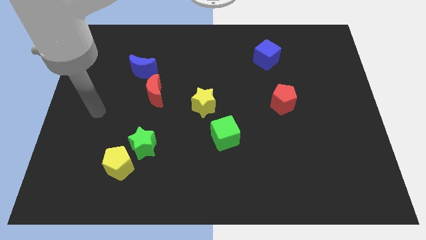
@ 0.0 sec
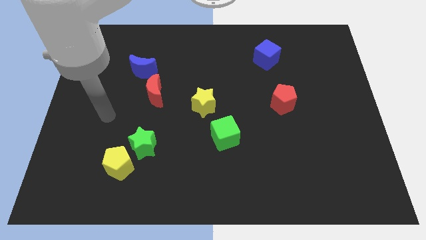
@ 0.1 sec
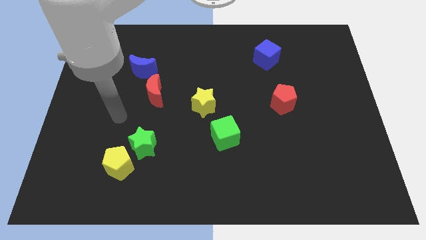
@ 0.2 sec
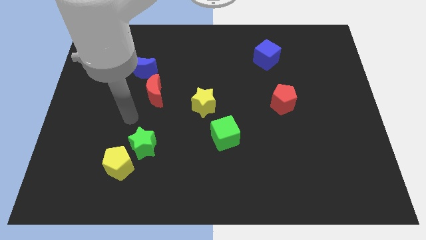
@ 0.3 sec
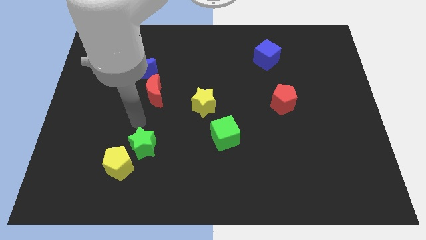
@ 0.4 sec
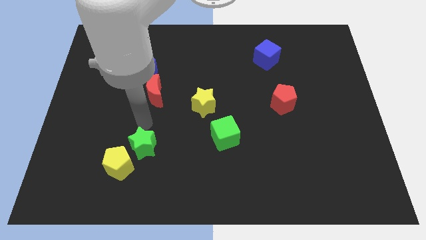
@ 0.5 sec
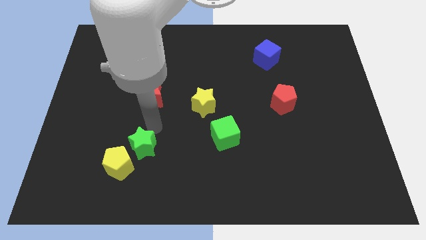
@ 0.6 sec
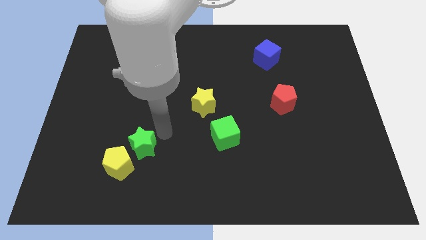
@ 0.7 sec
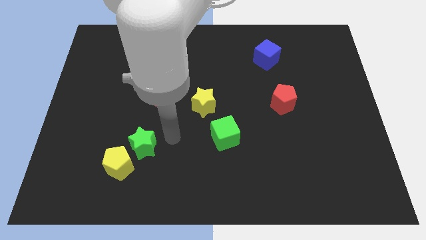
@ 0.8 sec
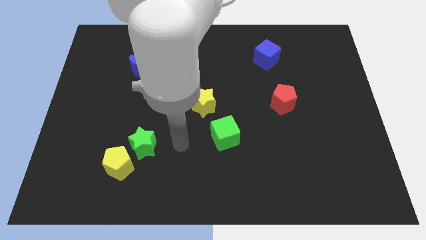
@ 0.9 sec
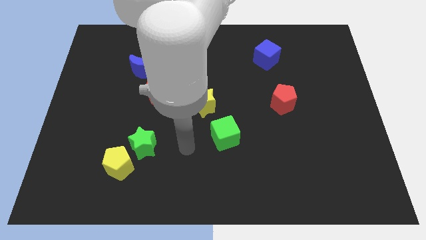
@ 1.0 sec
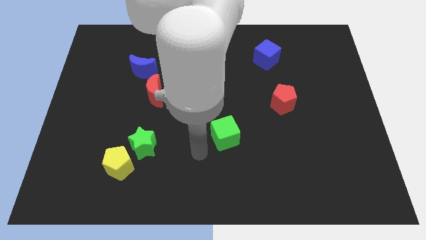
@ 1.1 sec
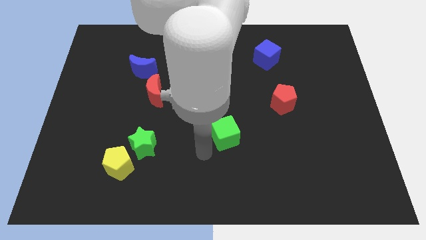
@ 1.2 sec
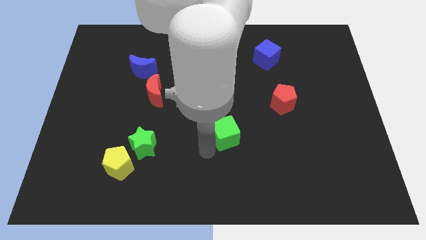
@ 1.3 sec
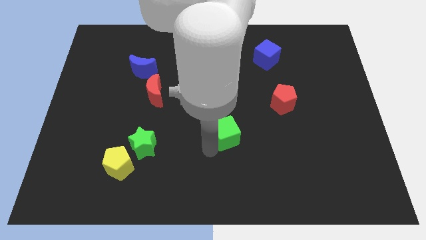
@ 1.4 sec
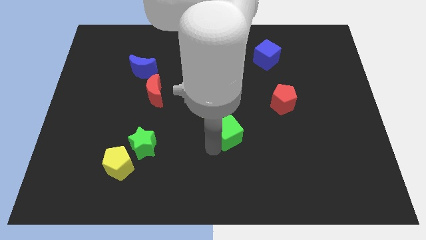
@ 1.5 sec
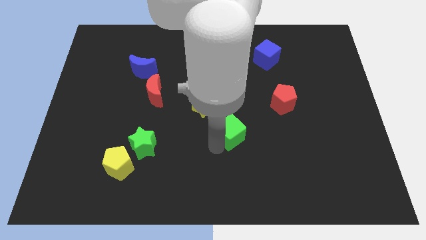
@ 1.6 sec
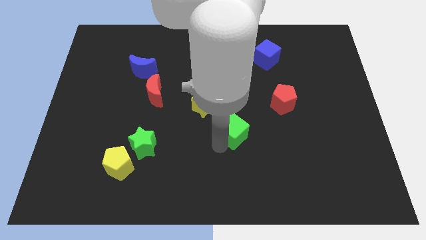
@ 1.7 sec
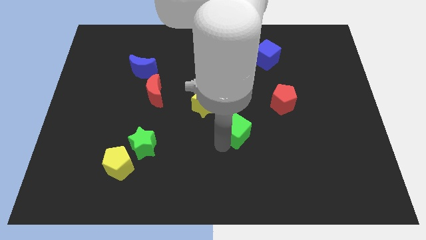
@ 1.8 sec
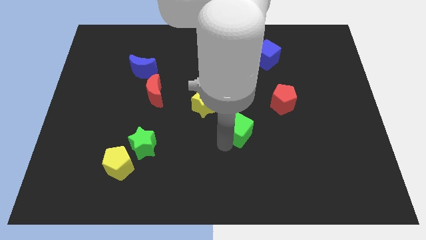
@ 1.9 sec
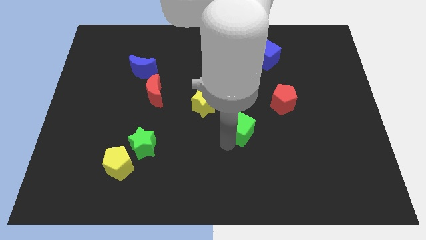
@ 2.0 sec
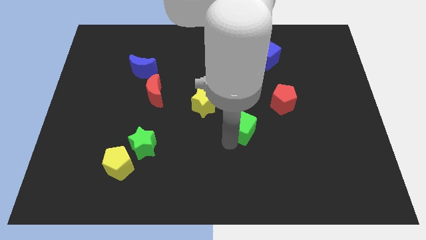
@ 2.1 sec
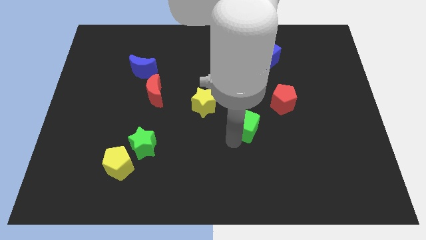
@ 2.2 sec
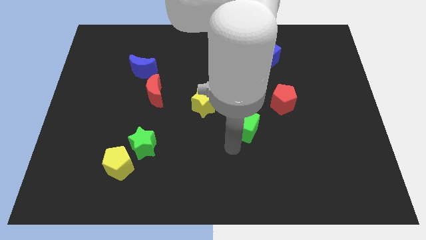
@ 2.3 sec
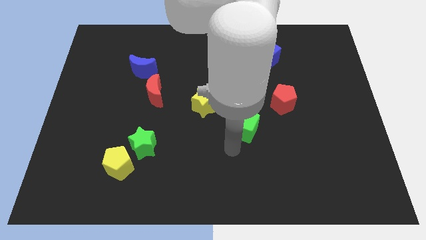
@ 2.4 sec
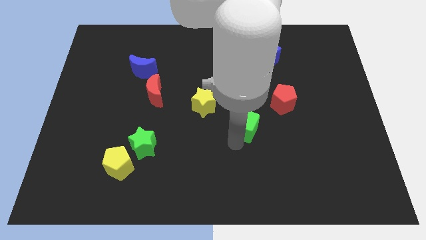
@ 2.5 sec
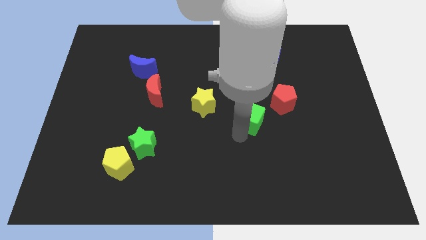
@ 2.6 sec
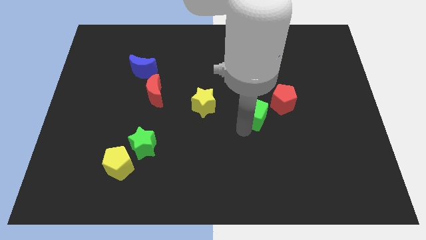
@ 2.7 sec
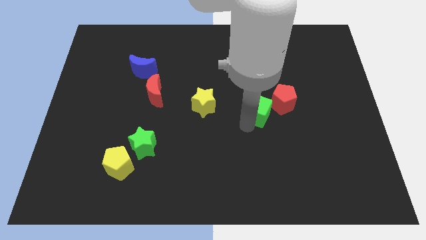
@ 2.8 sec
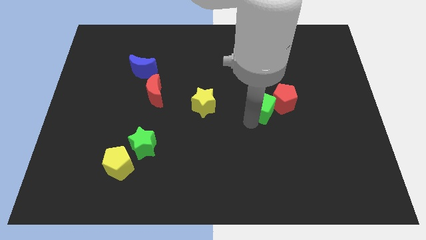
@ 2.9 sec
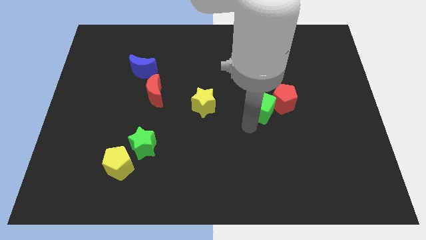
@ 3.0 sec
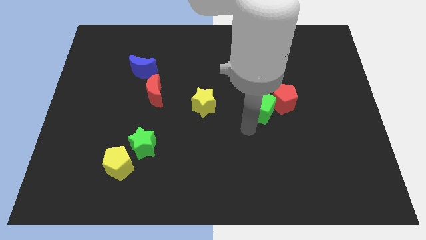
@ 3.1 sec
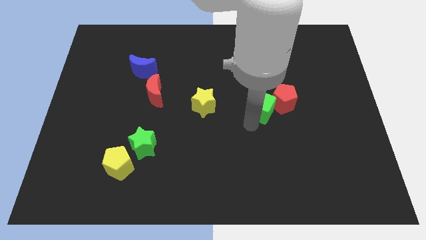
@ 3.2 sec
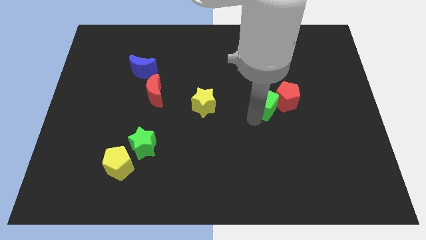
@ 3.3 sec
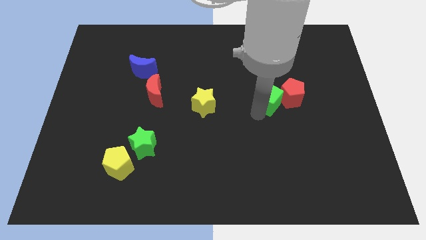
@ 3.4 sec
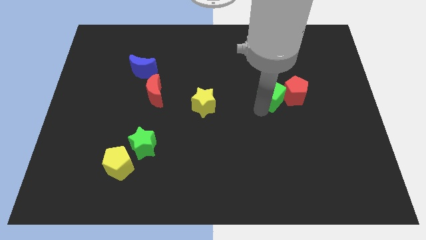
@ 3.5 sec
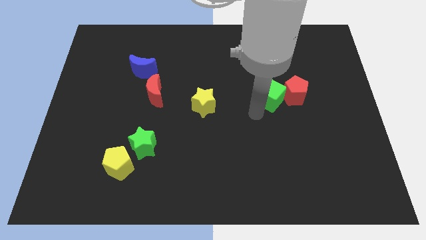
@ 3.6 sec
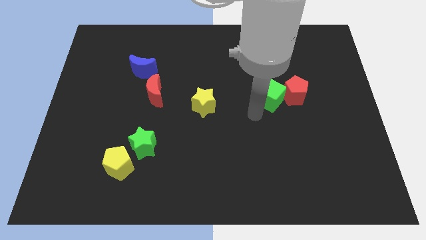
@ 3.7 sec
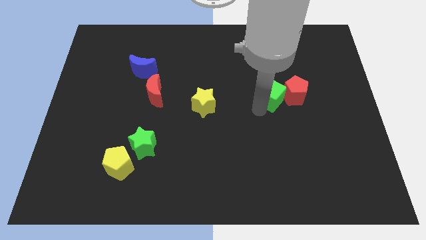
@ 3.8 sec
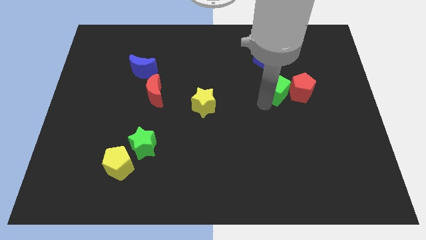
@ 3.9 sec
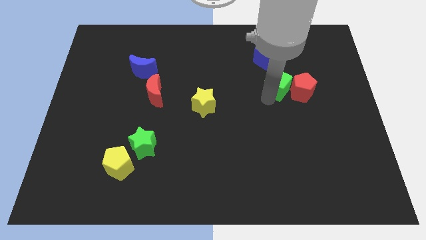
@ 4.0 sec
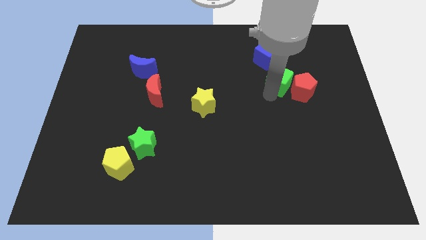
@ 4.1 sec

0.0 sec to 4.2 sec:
push the green cube up and right

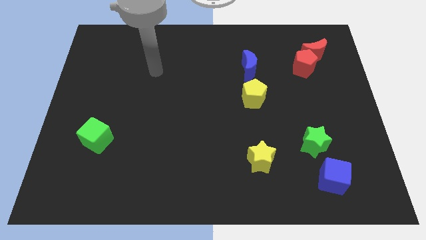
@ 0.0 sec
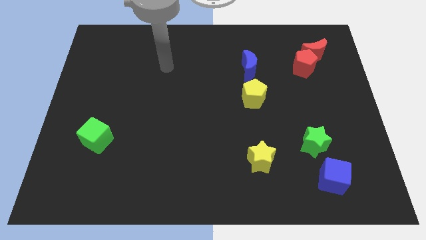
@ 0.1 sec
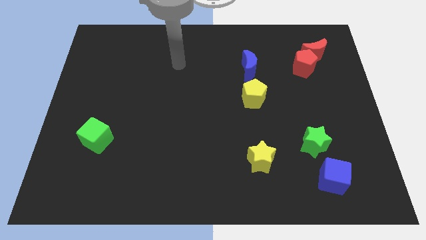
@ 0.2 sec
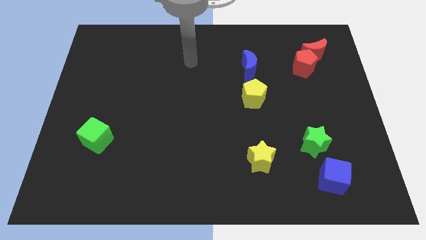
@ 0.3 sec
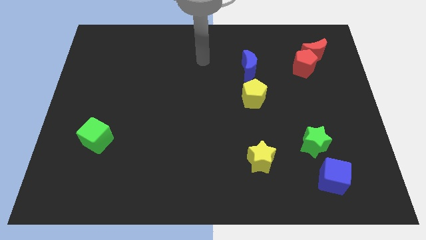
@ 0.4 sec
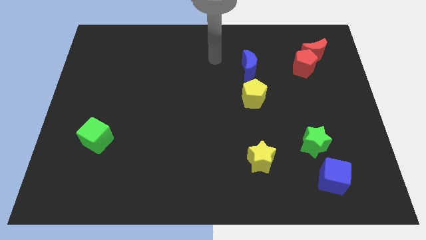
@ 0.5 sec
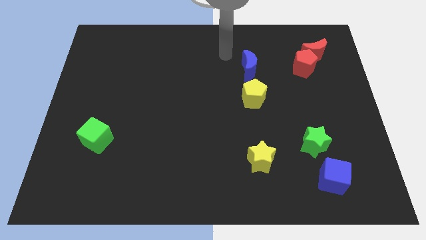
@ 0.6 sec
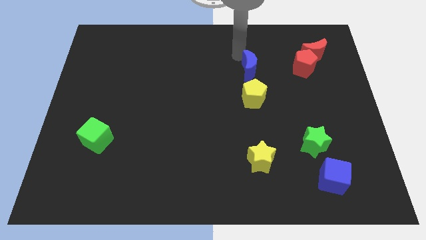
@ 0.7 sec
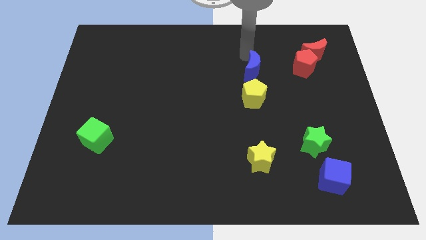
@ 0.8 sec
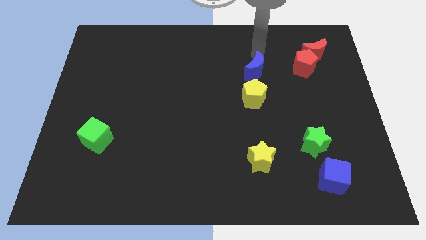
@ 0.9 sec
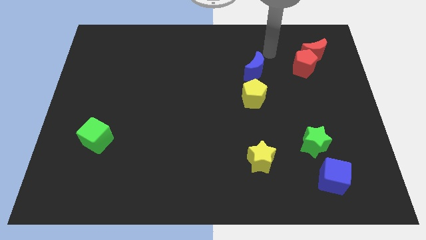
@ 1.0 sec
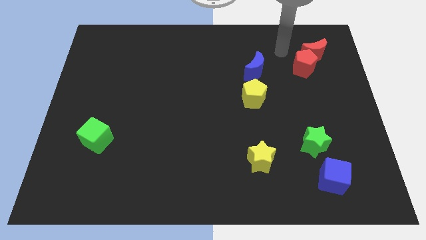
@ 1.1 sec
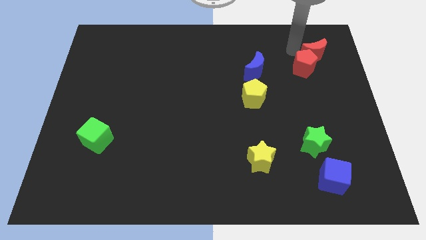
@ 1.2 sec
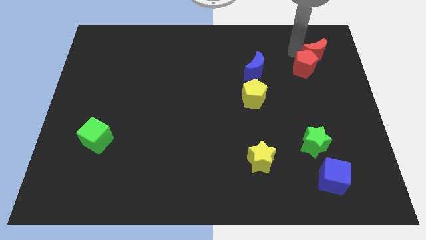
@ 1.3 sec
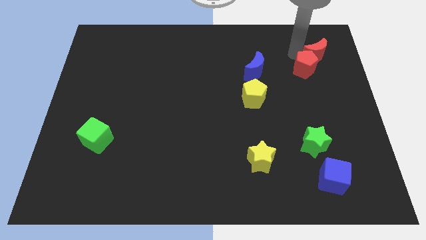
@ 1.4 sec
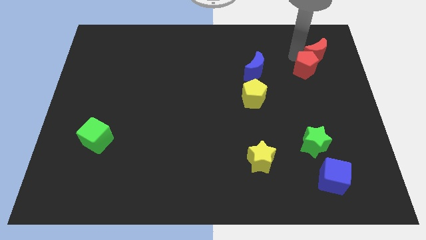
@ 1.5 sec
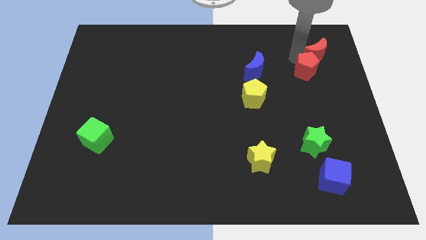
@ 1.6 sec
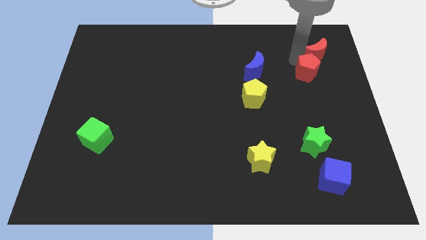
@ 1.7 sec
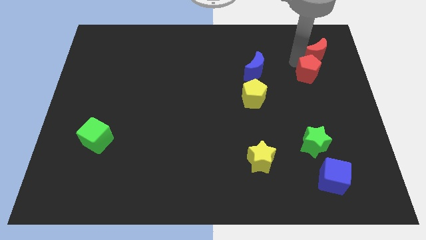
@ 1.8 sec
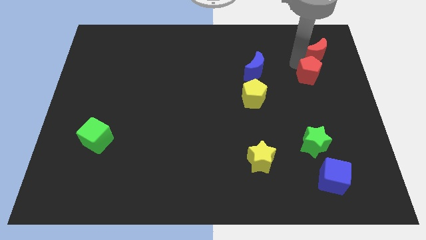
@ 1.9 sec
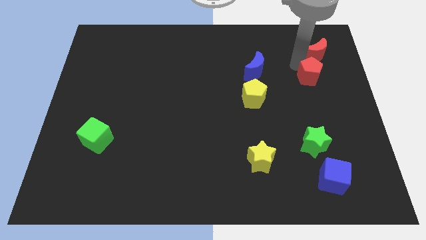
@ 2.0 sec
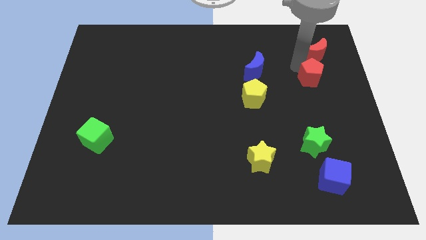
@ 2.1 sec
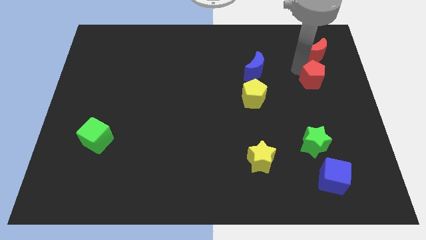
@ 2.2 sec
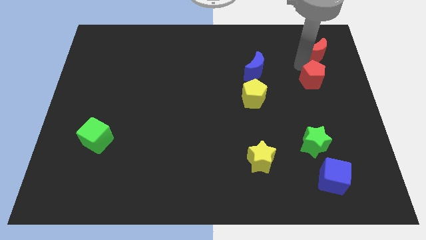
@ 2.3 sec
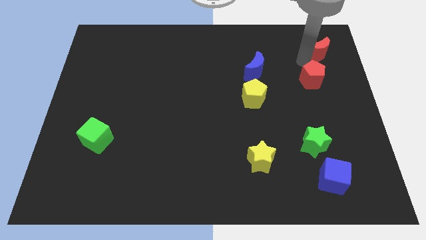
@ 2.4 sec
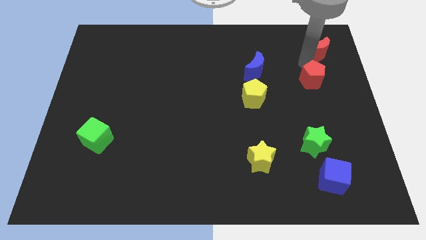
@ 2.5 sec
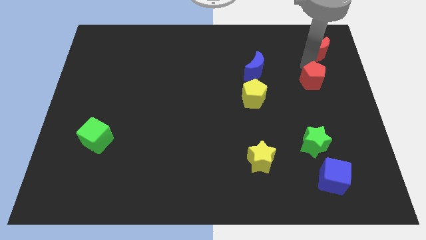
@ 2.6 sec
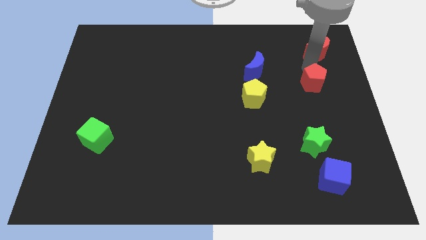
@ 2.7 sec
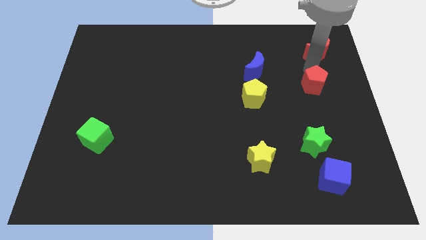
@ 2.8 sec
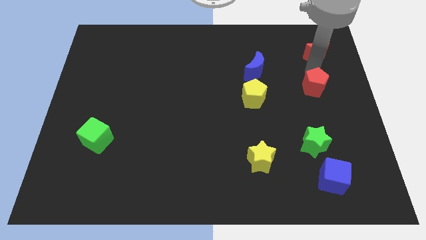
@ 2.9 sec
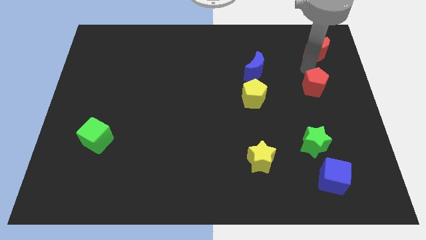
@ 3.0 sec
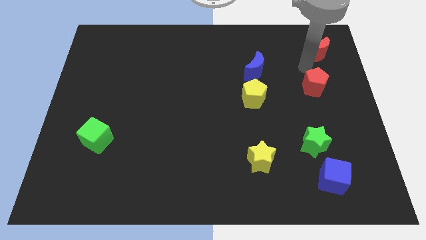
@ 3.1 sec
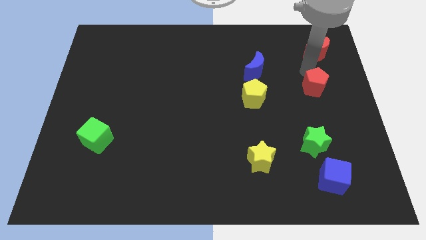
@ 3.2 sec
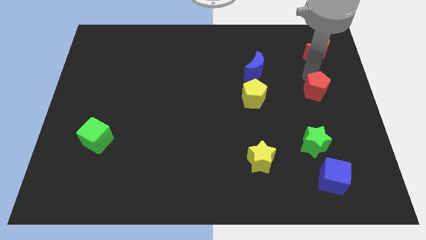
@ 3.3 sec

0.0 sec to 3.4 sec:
slightly push the red pentagon down

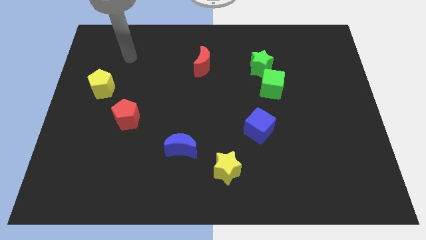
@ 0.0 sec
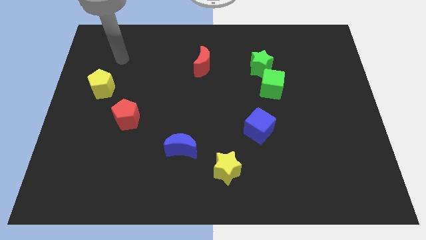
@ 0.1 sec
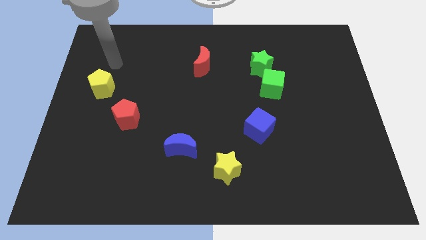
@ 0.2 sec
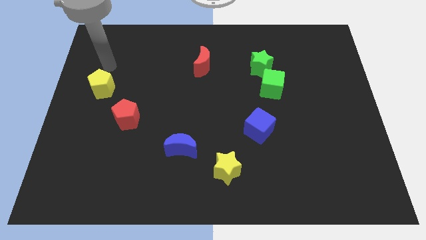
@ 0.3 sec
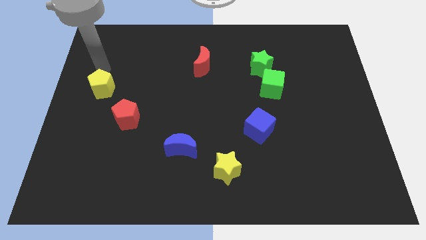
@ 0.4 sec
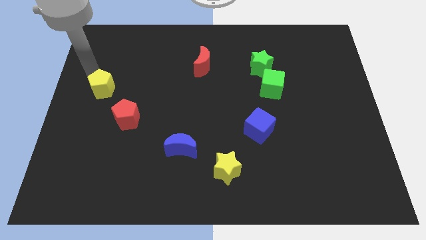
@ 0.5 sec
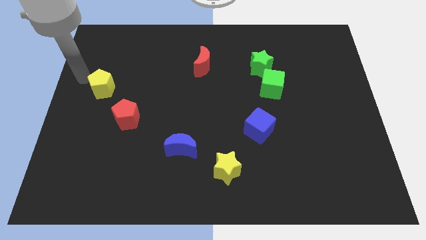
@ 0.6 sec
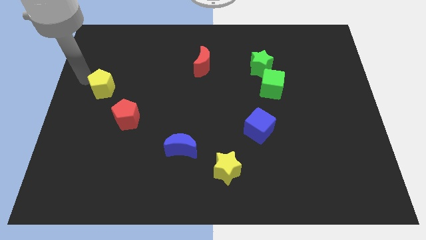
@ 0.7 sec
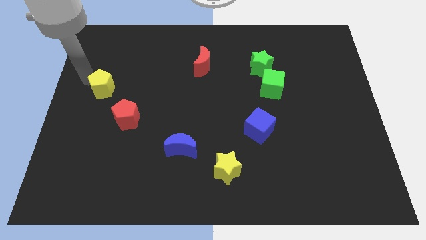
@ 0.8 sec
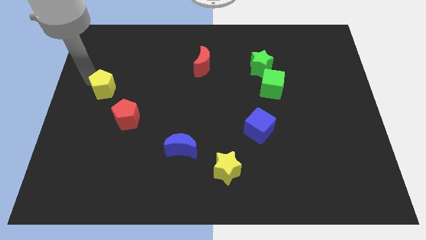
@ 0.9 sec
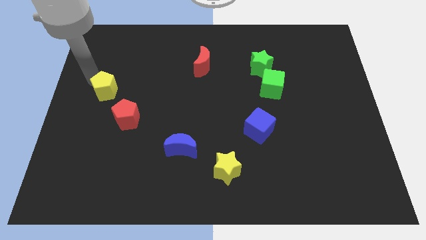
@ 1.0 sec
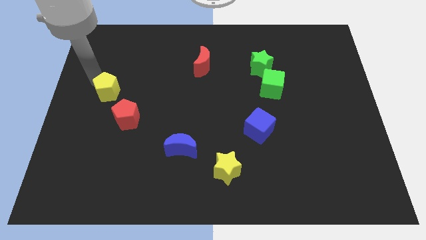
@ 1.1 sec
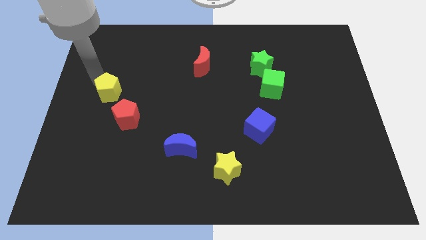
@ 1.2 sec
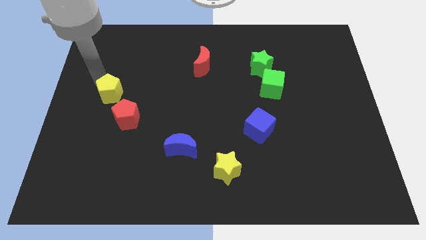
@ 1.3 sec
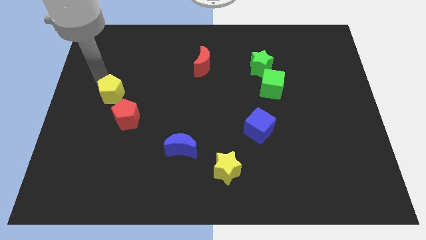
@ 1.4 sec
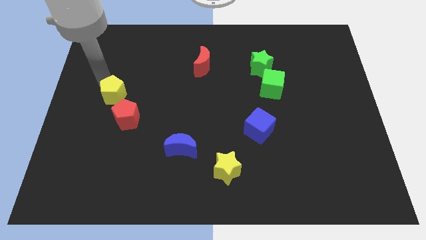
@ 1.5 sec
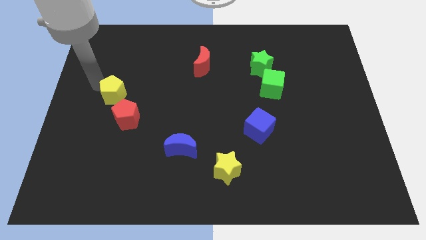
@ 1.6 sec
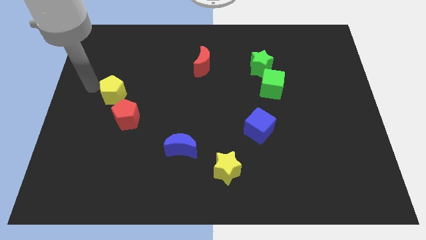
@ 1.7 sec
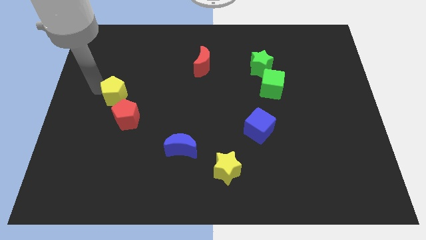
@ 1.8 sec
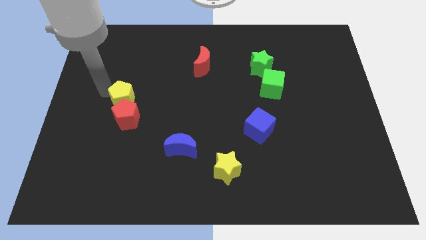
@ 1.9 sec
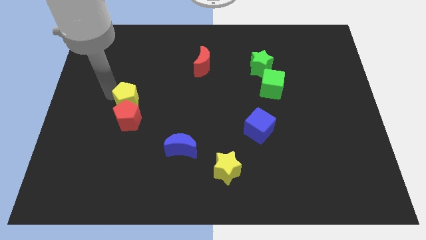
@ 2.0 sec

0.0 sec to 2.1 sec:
push the yellow pentagon down and right somewhat
